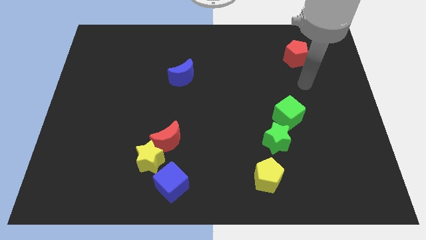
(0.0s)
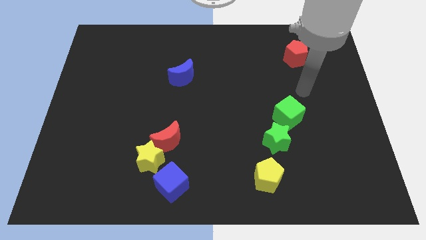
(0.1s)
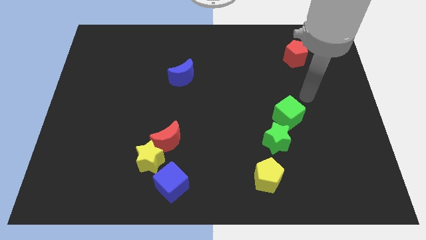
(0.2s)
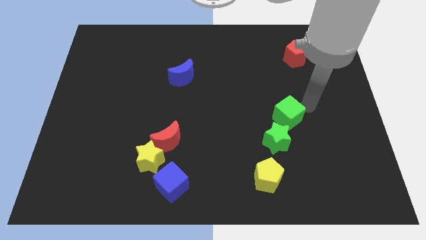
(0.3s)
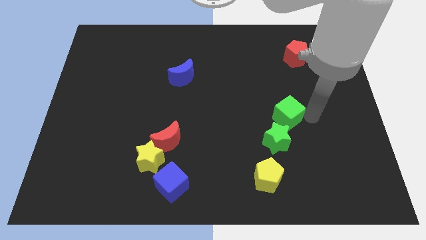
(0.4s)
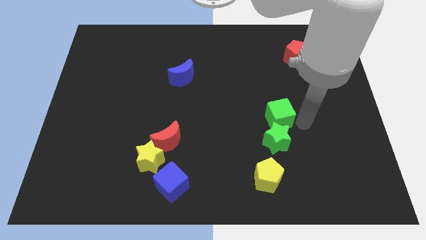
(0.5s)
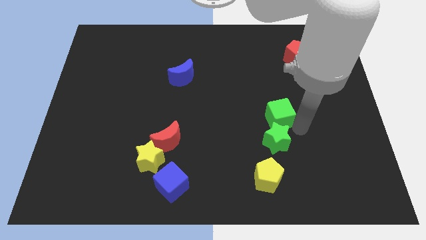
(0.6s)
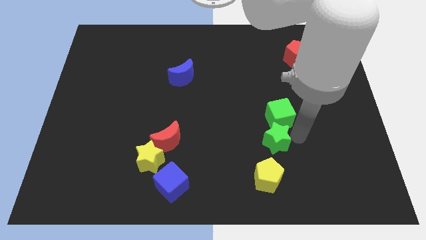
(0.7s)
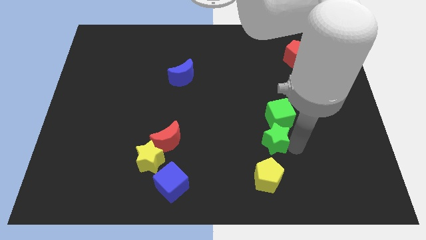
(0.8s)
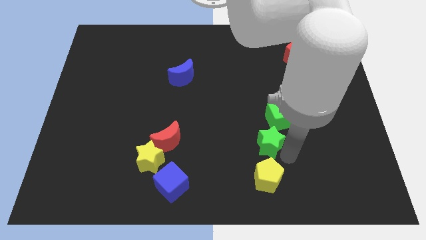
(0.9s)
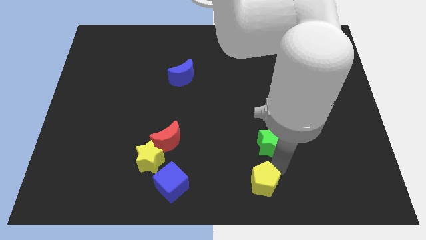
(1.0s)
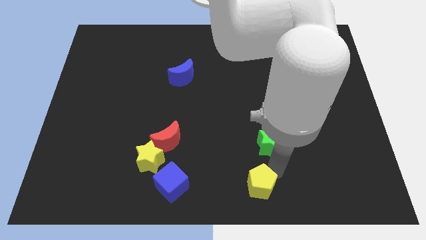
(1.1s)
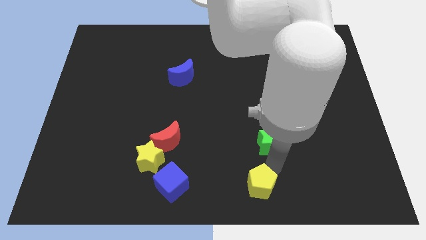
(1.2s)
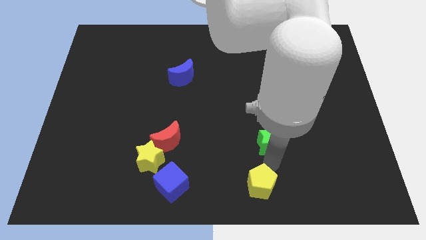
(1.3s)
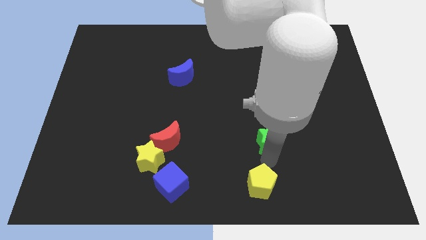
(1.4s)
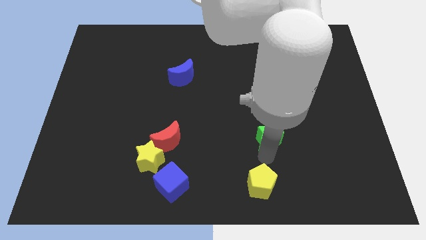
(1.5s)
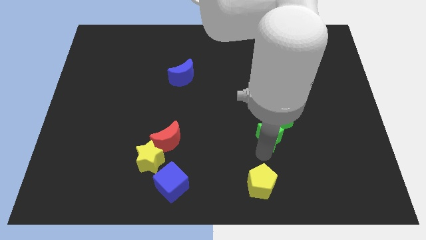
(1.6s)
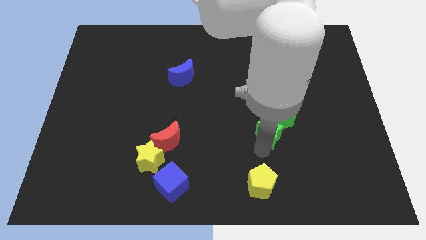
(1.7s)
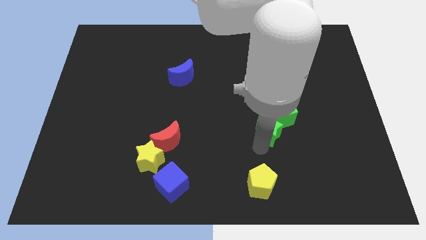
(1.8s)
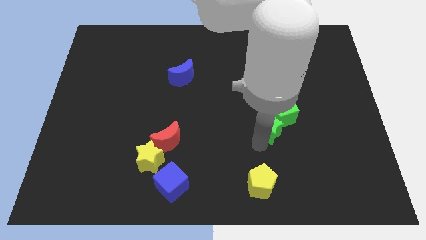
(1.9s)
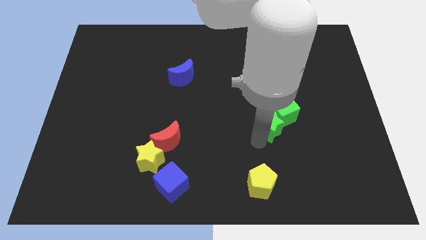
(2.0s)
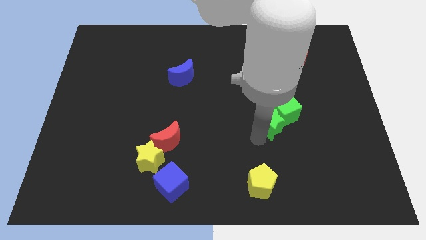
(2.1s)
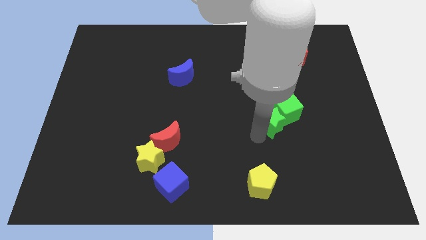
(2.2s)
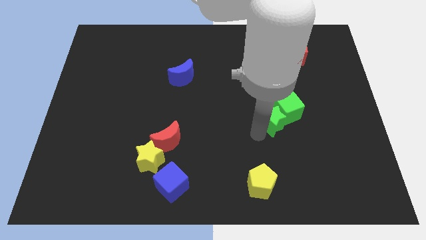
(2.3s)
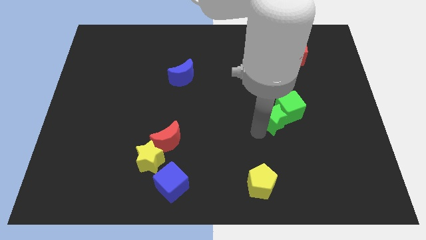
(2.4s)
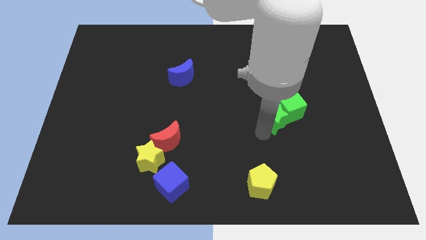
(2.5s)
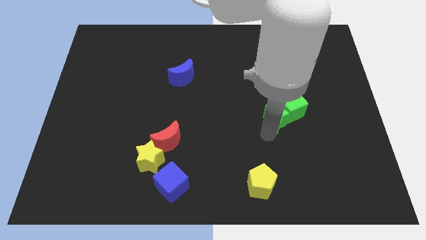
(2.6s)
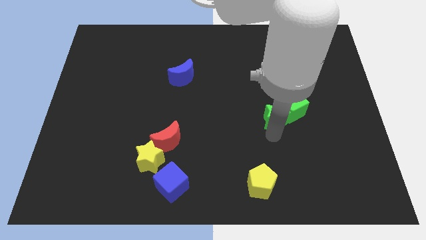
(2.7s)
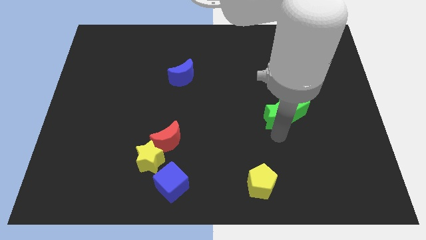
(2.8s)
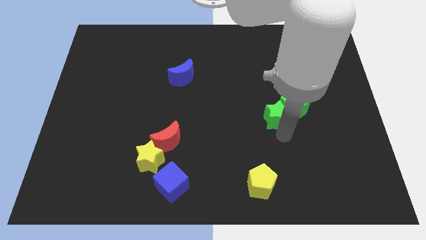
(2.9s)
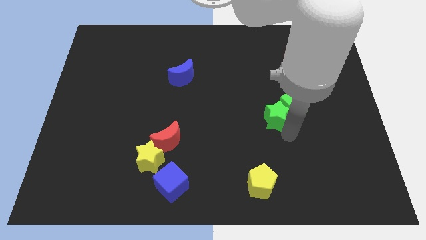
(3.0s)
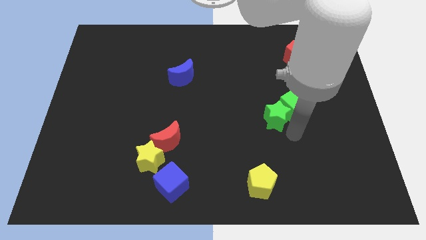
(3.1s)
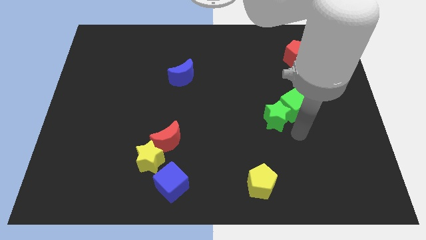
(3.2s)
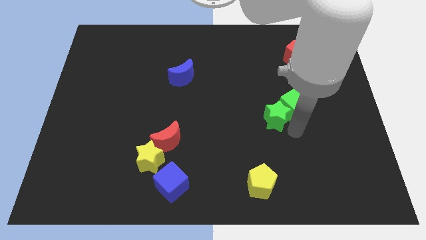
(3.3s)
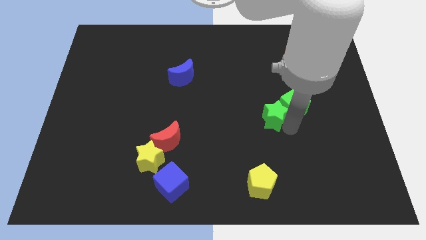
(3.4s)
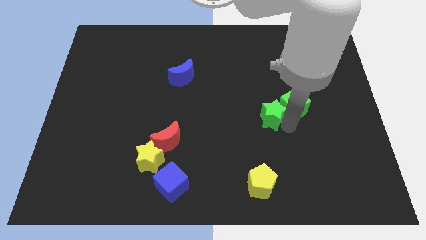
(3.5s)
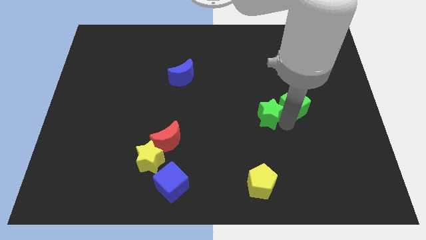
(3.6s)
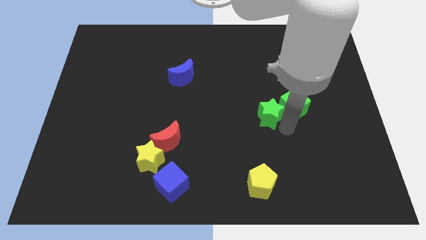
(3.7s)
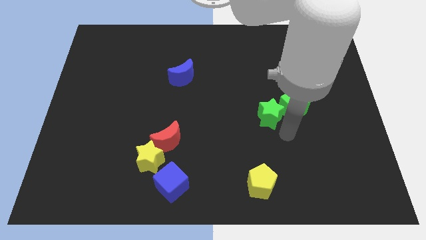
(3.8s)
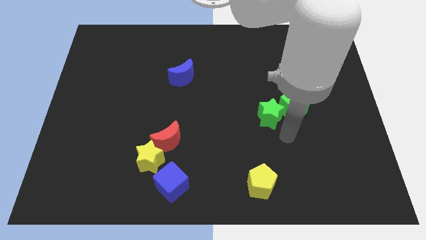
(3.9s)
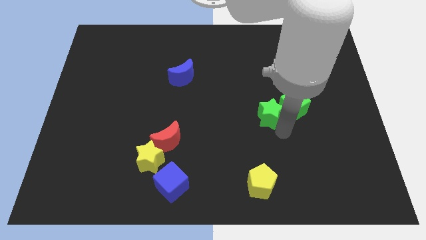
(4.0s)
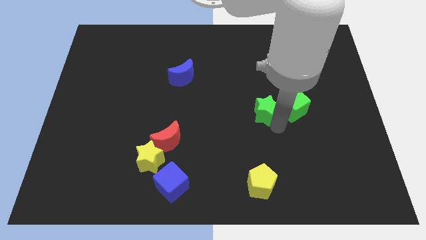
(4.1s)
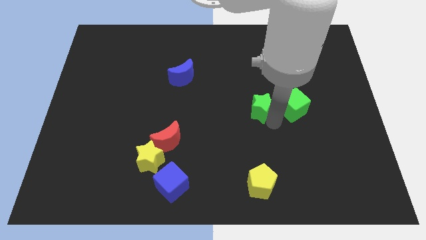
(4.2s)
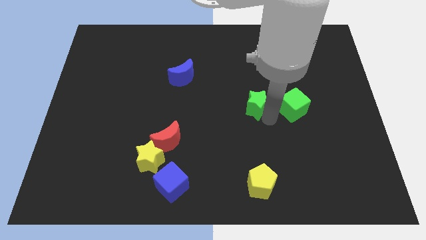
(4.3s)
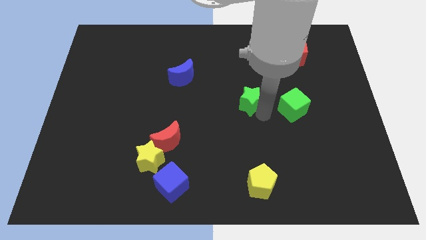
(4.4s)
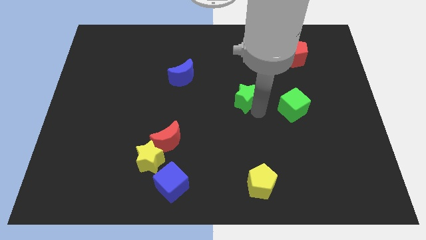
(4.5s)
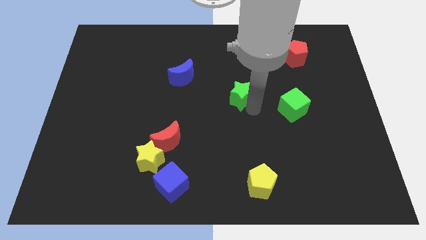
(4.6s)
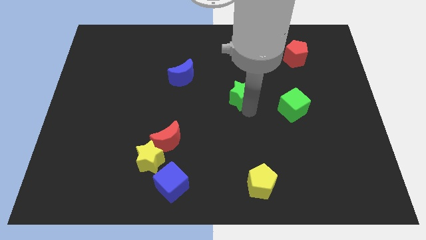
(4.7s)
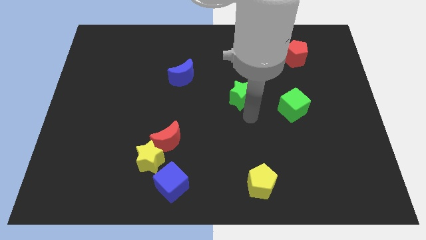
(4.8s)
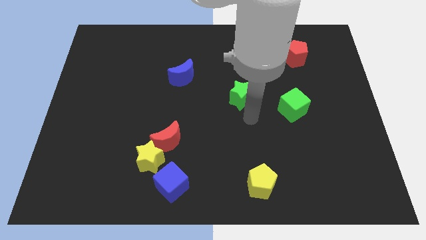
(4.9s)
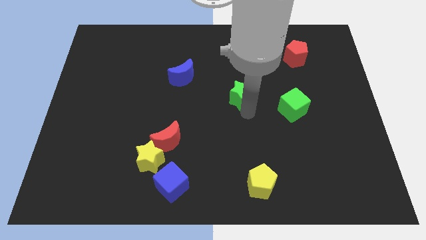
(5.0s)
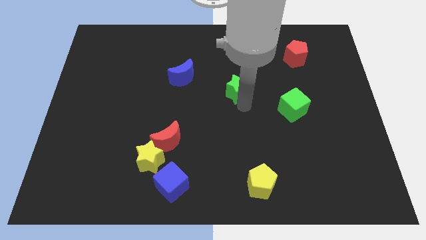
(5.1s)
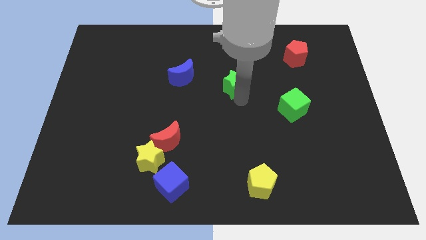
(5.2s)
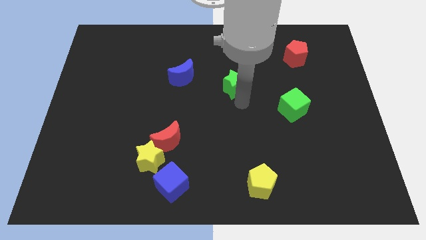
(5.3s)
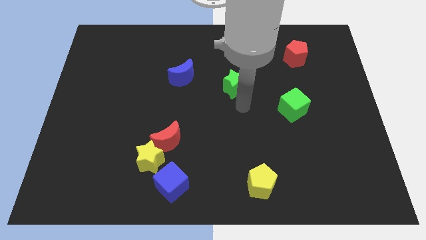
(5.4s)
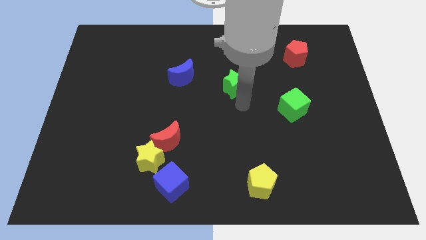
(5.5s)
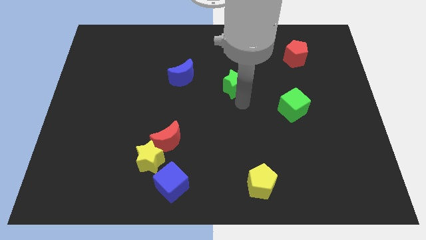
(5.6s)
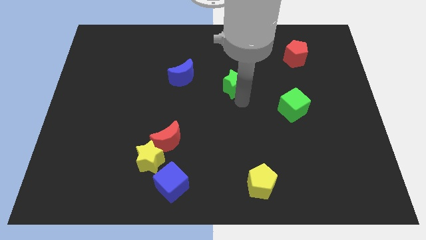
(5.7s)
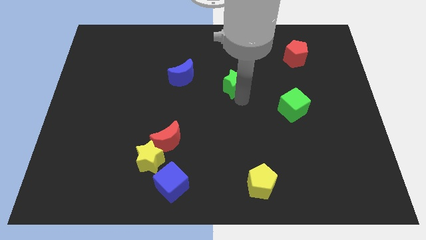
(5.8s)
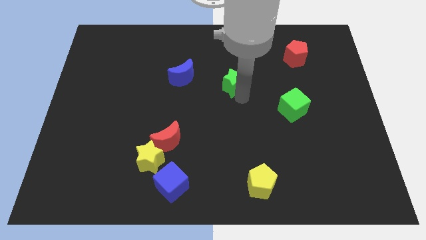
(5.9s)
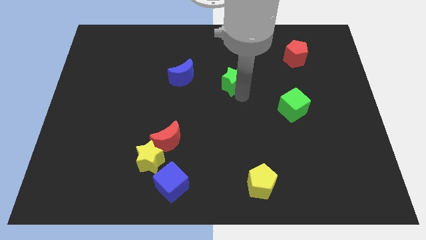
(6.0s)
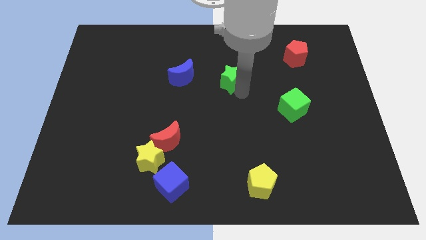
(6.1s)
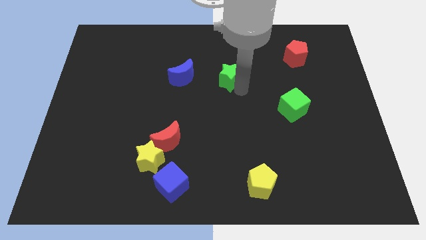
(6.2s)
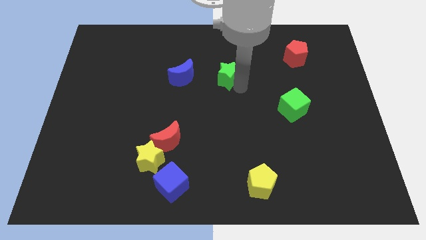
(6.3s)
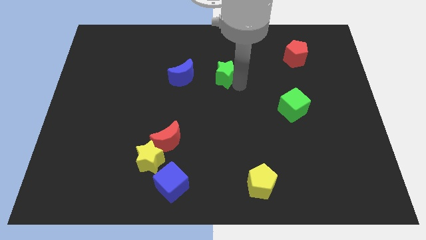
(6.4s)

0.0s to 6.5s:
move the green star up and then to the left

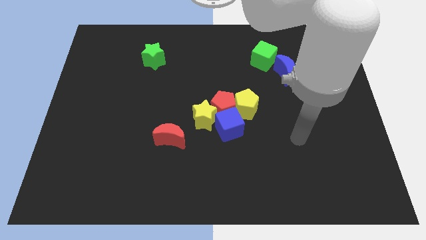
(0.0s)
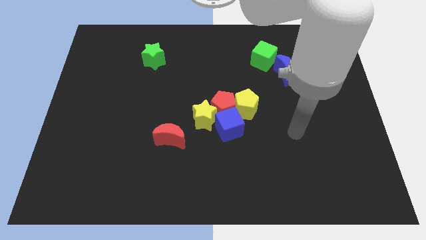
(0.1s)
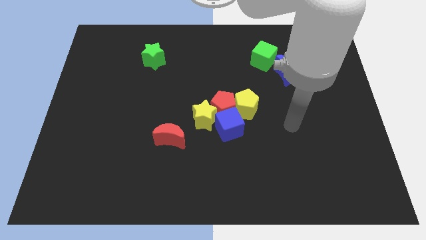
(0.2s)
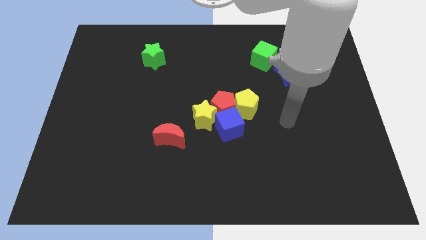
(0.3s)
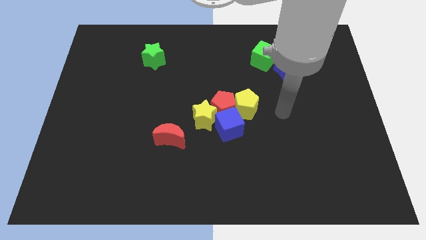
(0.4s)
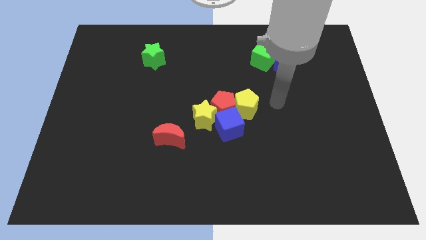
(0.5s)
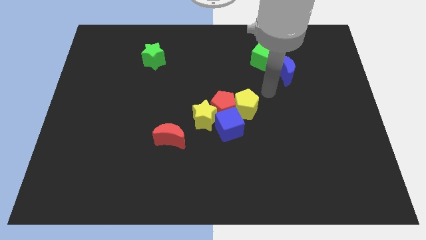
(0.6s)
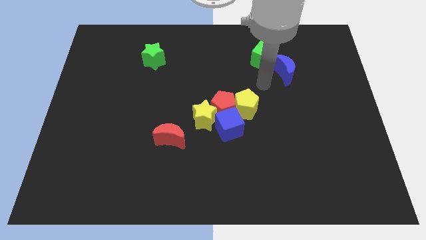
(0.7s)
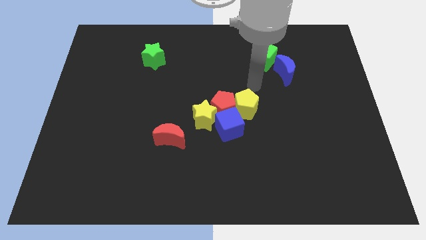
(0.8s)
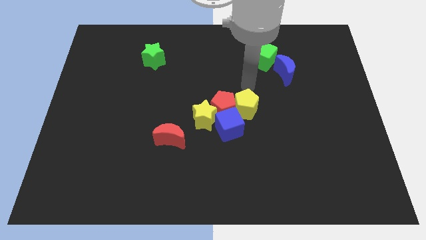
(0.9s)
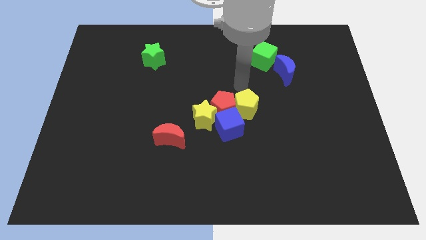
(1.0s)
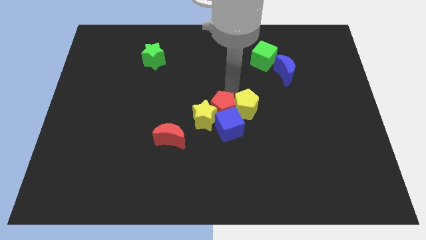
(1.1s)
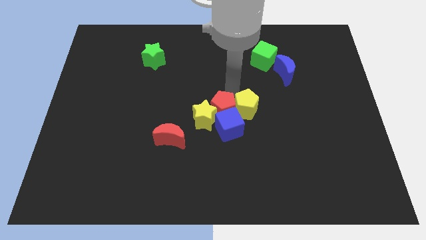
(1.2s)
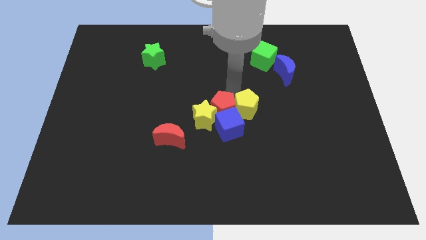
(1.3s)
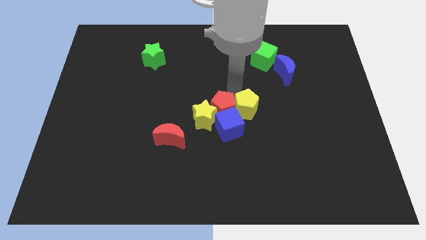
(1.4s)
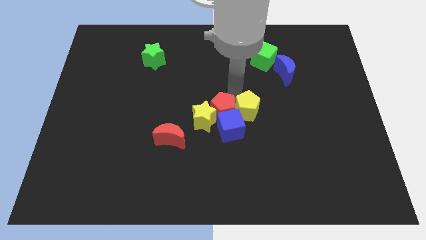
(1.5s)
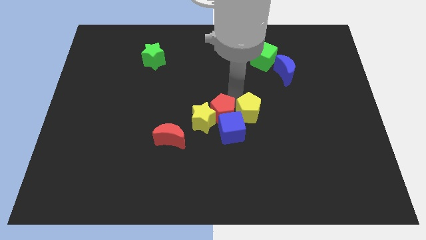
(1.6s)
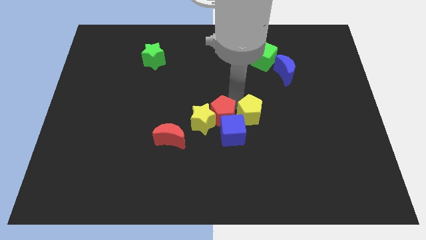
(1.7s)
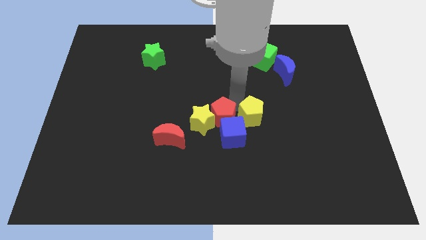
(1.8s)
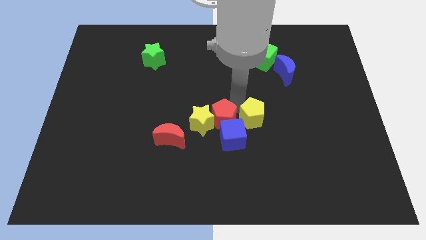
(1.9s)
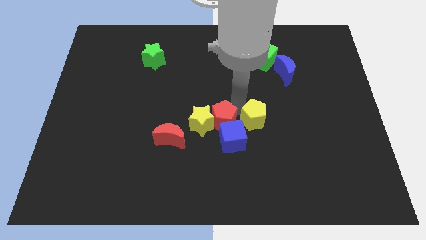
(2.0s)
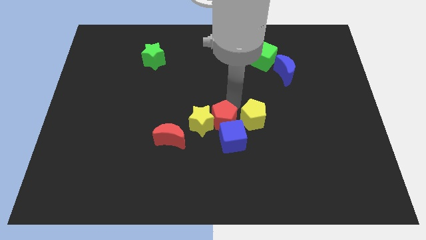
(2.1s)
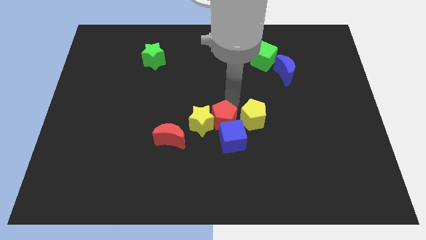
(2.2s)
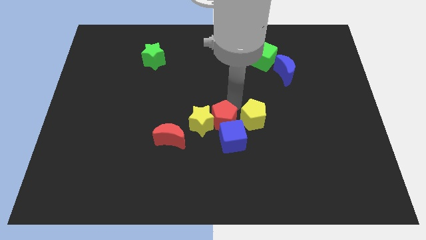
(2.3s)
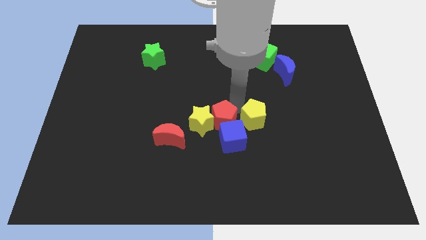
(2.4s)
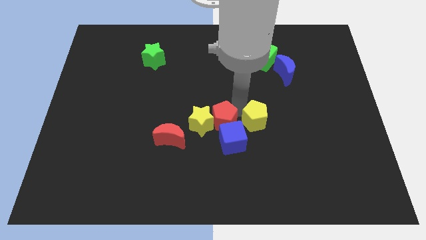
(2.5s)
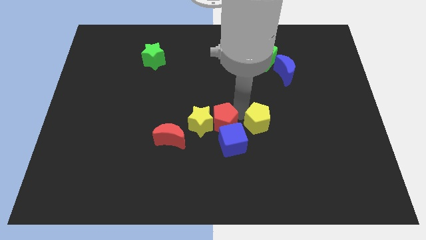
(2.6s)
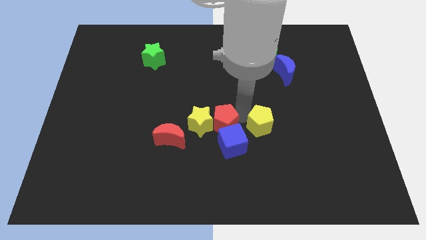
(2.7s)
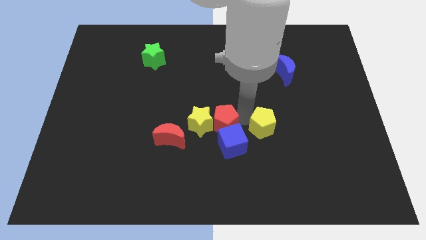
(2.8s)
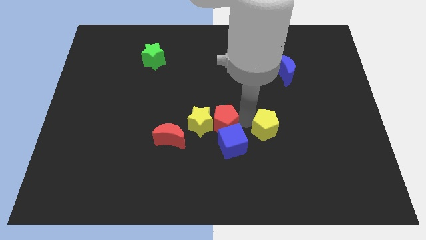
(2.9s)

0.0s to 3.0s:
slide the yellow pentagon a bit downwards and to the right
